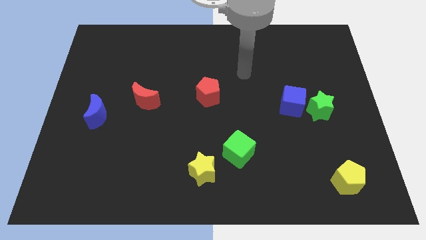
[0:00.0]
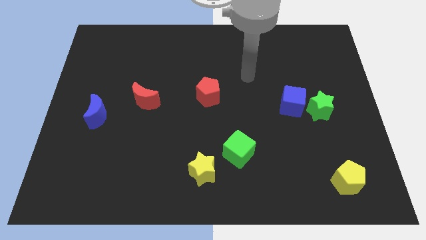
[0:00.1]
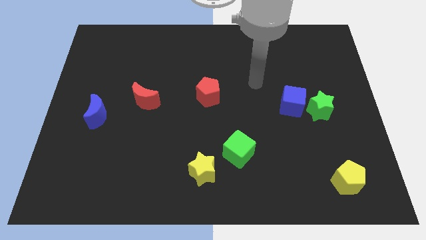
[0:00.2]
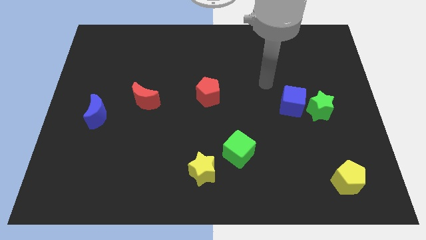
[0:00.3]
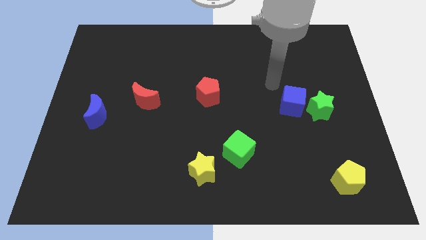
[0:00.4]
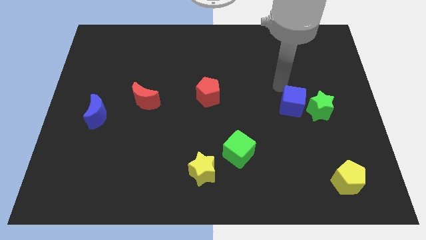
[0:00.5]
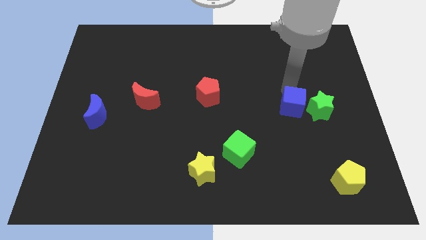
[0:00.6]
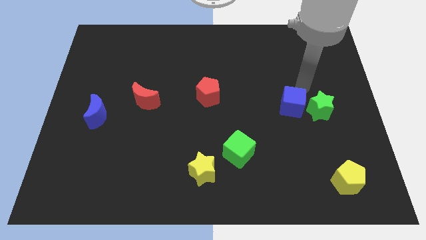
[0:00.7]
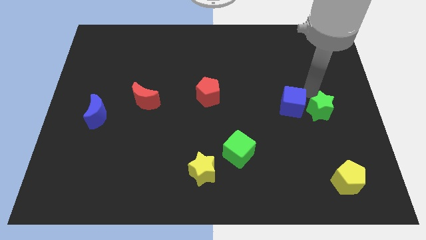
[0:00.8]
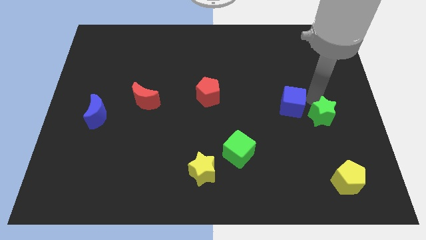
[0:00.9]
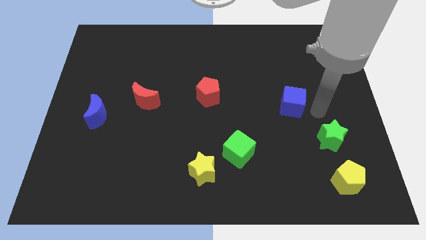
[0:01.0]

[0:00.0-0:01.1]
separate the blue cube from the green star

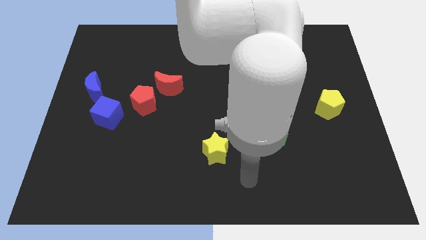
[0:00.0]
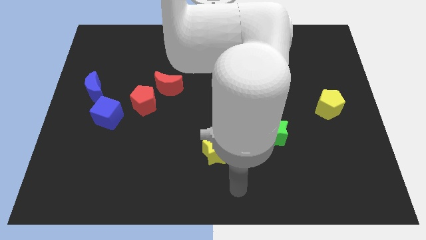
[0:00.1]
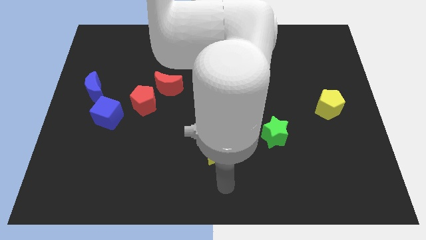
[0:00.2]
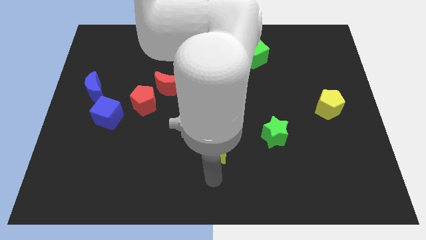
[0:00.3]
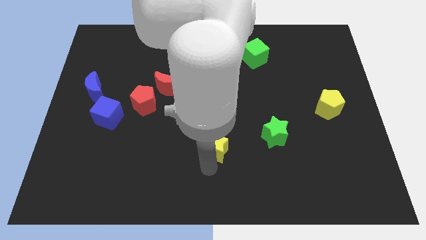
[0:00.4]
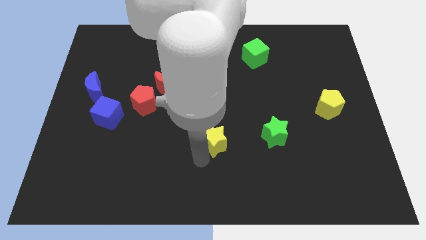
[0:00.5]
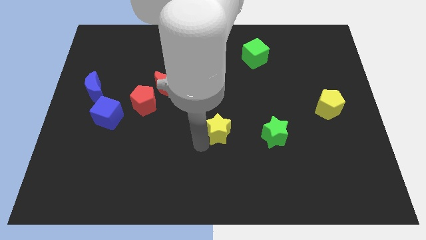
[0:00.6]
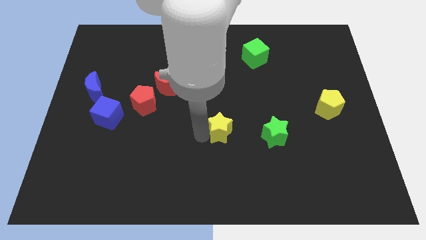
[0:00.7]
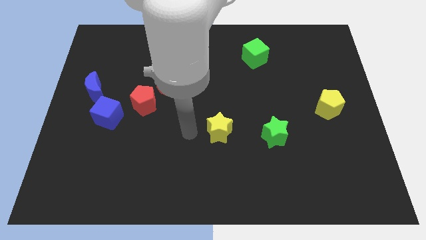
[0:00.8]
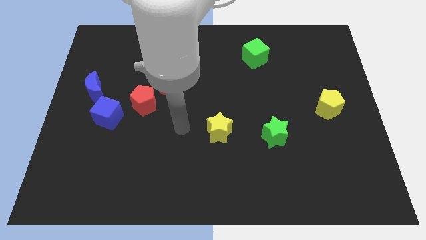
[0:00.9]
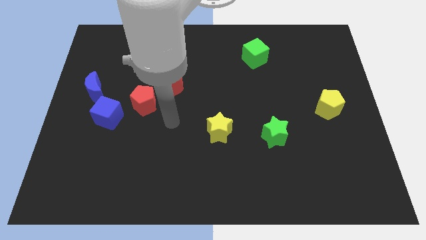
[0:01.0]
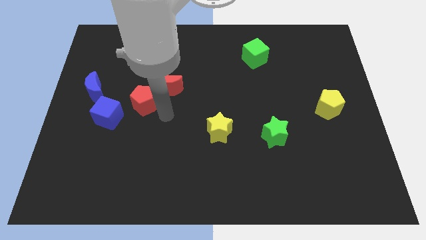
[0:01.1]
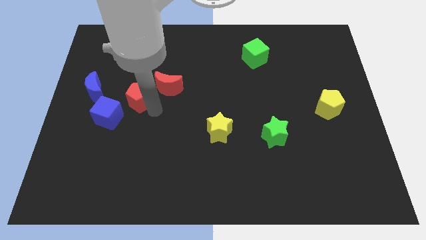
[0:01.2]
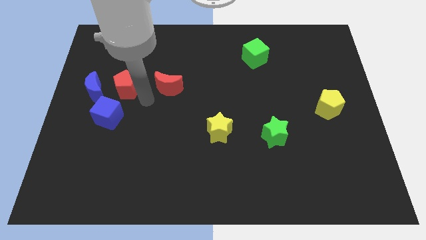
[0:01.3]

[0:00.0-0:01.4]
pull the red moon apart from the red pentagon

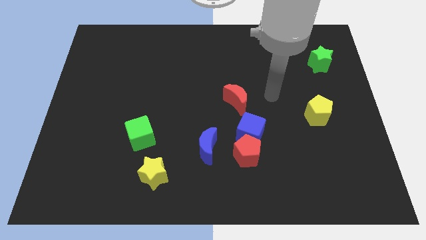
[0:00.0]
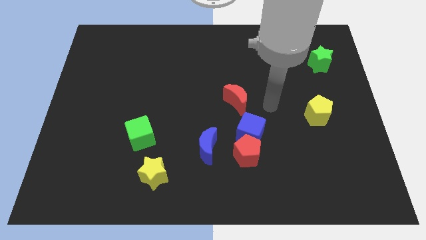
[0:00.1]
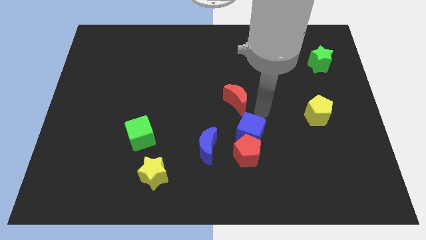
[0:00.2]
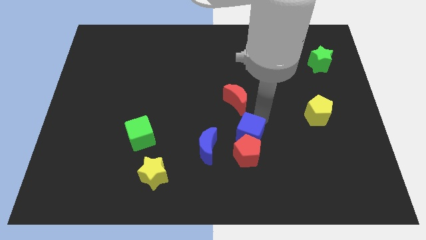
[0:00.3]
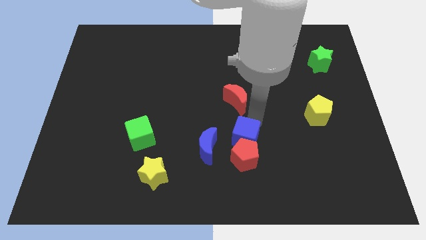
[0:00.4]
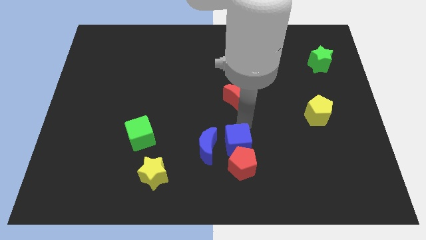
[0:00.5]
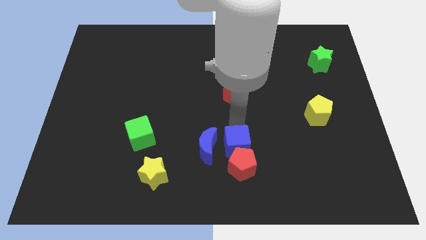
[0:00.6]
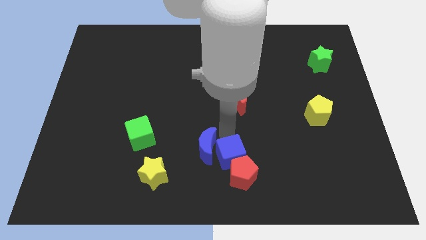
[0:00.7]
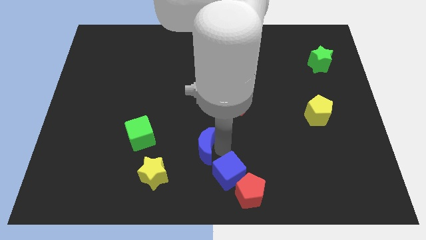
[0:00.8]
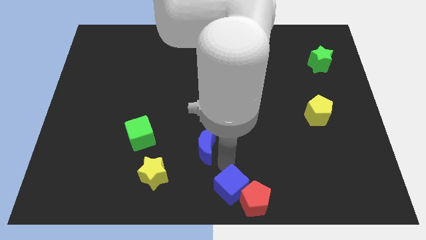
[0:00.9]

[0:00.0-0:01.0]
separate the red pentagon from the blue cube and blue moon

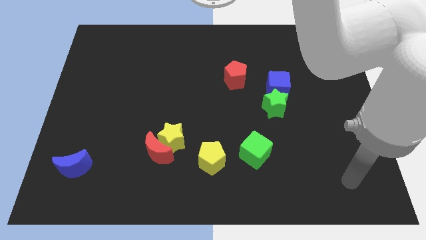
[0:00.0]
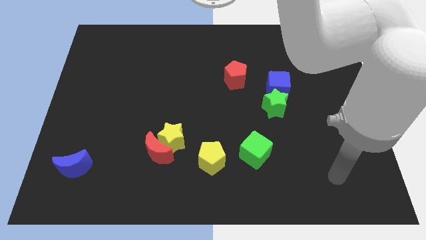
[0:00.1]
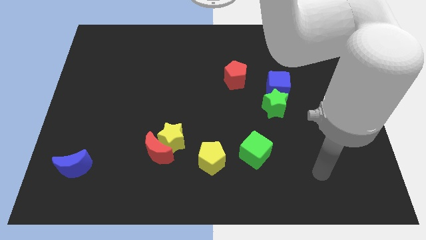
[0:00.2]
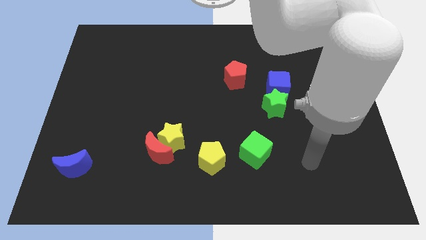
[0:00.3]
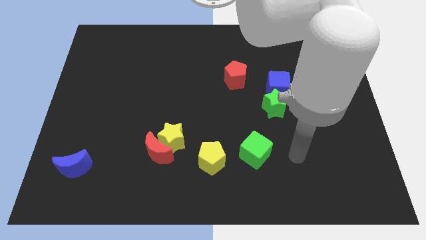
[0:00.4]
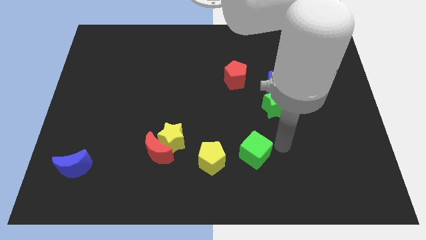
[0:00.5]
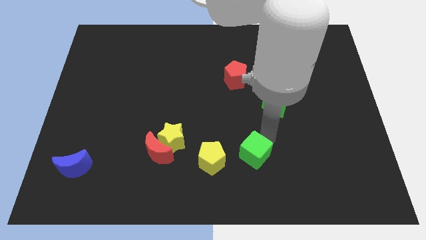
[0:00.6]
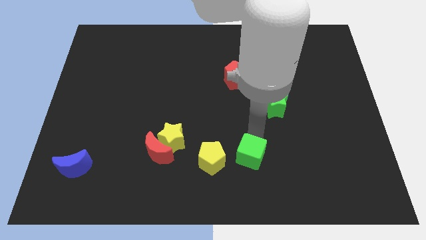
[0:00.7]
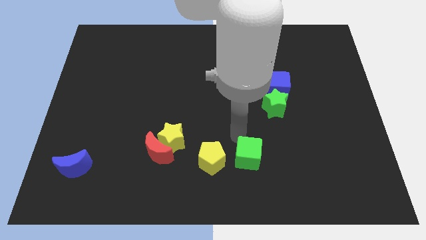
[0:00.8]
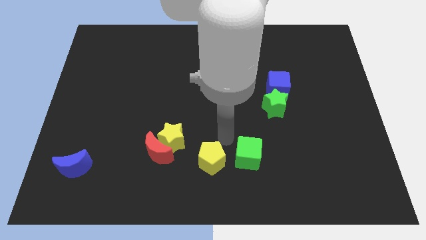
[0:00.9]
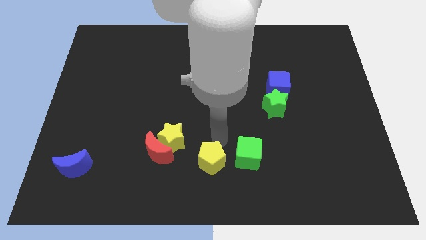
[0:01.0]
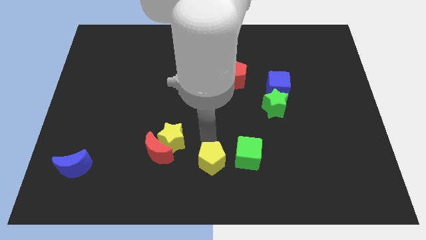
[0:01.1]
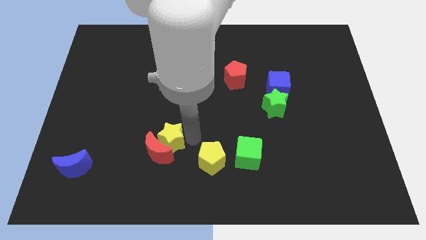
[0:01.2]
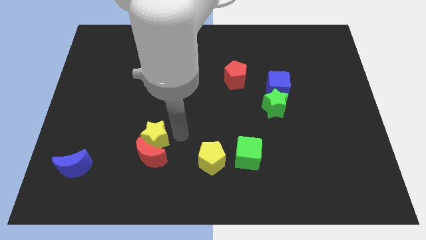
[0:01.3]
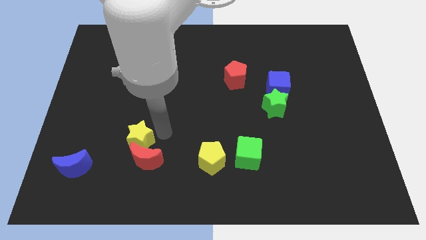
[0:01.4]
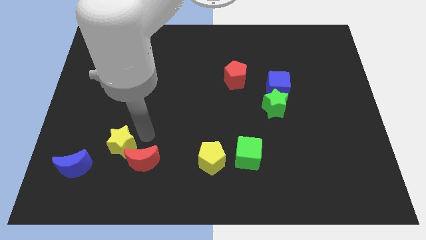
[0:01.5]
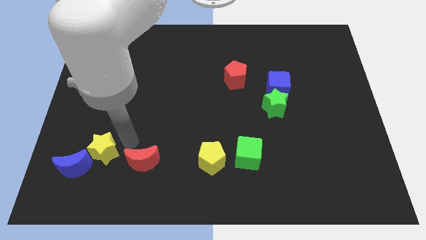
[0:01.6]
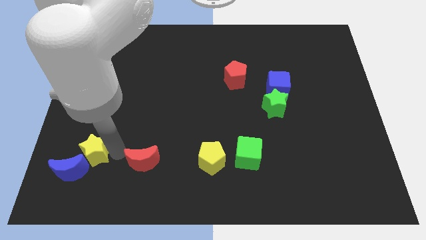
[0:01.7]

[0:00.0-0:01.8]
pull the red moon apart from the yellow star

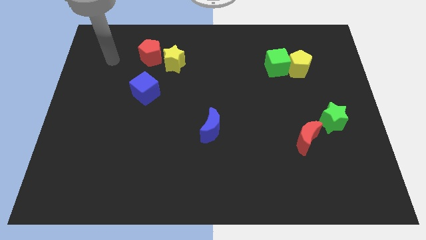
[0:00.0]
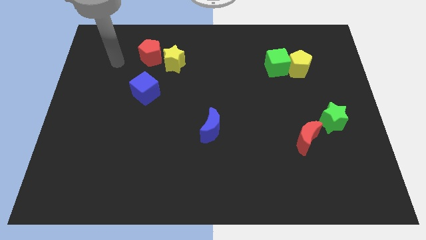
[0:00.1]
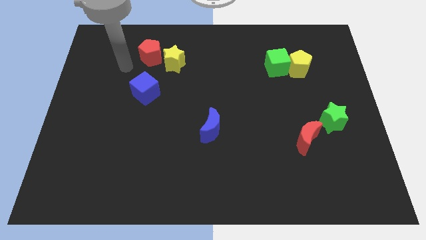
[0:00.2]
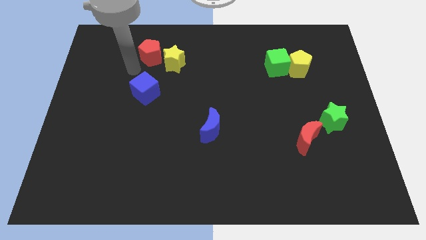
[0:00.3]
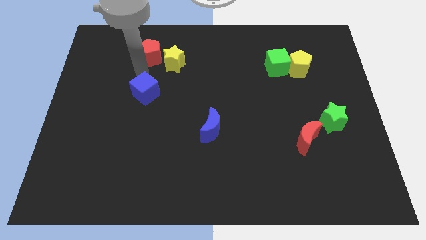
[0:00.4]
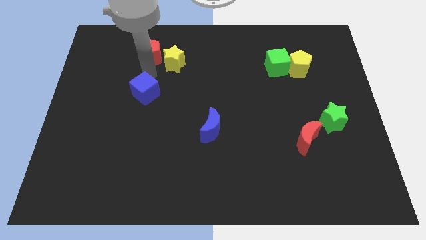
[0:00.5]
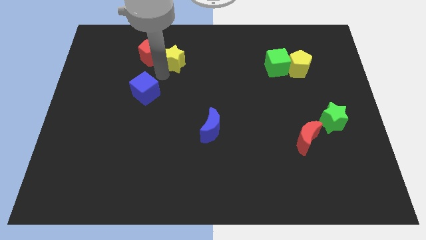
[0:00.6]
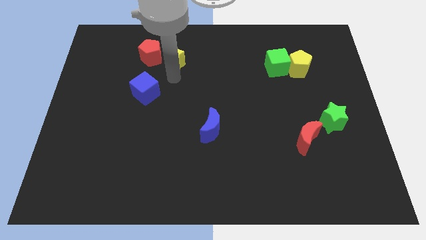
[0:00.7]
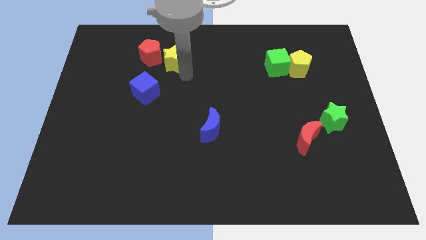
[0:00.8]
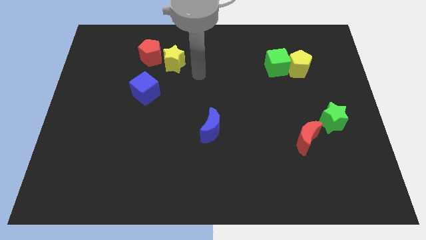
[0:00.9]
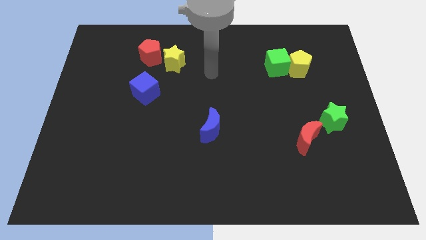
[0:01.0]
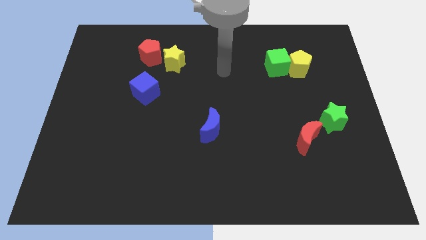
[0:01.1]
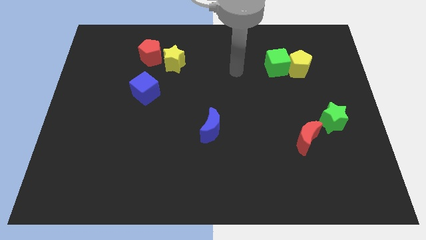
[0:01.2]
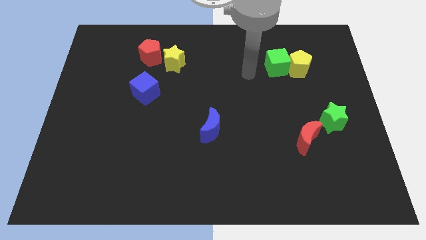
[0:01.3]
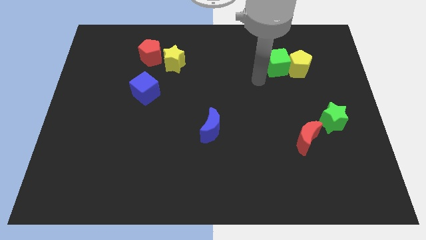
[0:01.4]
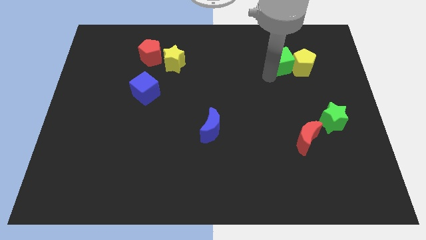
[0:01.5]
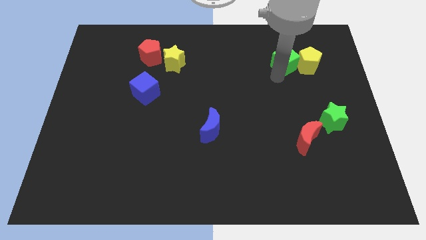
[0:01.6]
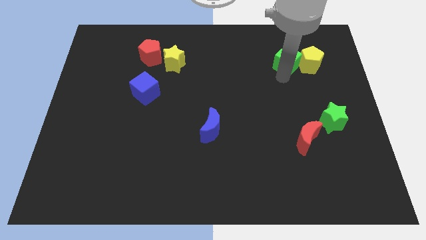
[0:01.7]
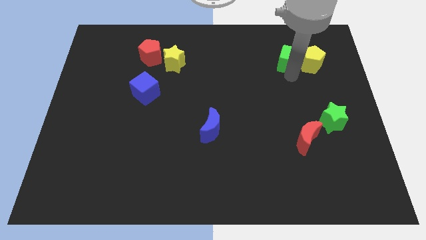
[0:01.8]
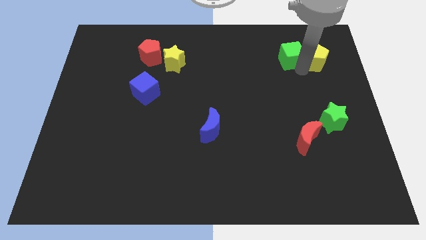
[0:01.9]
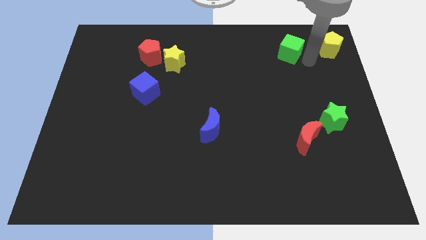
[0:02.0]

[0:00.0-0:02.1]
move the green cube away from the yellow pentagon

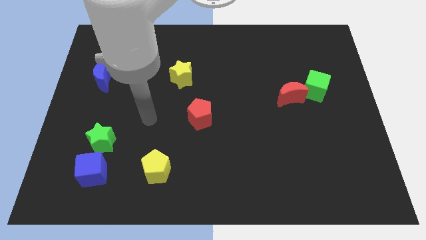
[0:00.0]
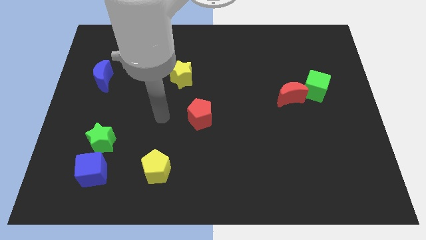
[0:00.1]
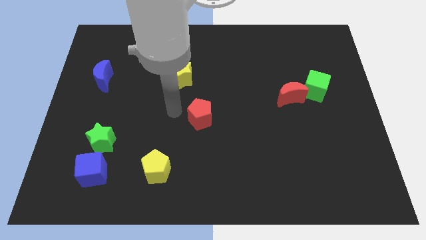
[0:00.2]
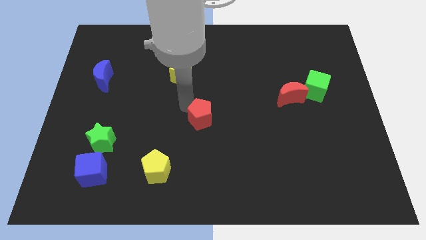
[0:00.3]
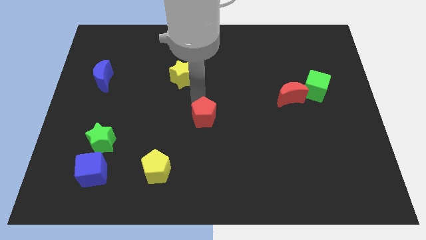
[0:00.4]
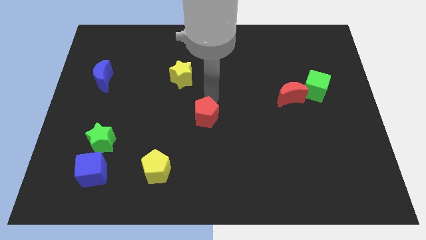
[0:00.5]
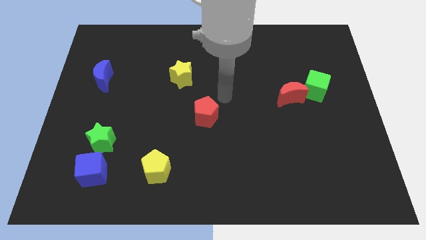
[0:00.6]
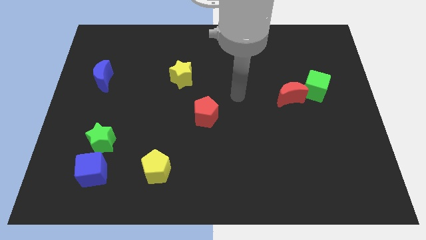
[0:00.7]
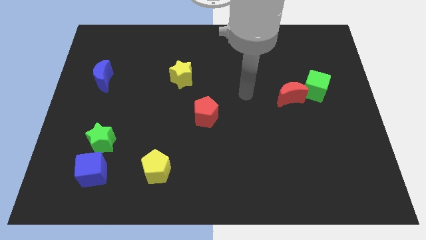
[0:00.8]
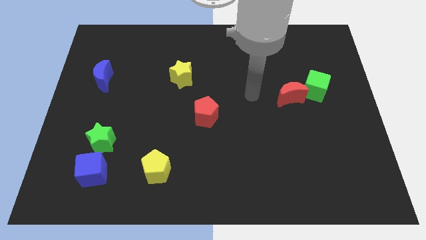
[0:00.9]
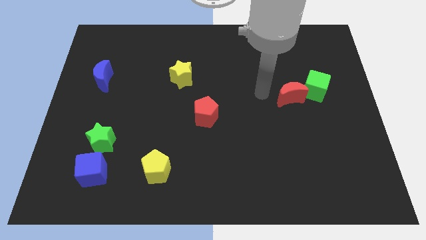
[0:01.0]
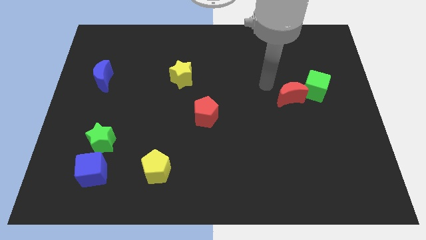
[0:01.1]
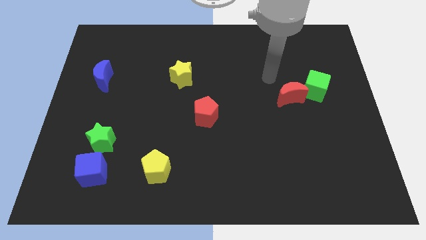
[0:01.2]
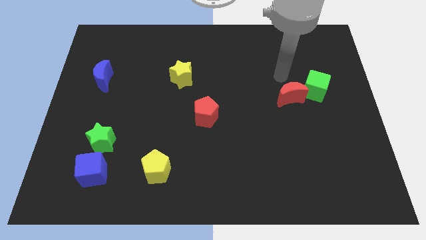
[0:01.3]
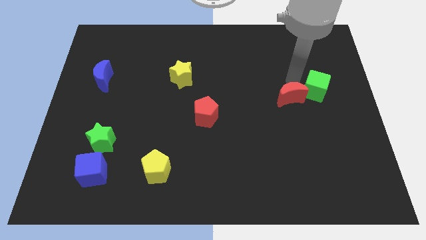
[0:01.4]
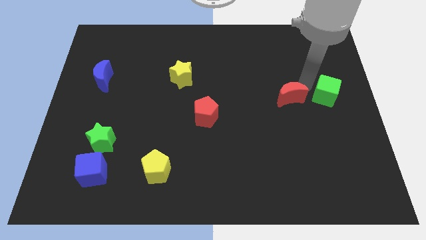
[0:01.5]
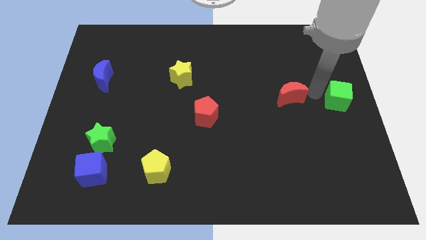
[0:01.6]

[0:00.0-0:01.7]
separate the red moon from the green cube

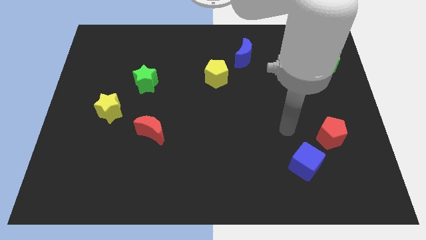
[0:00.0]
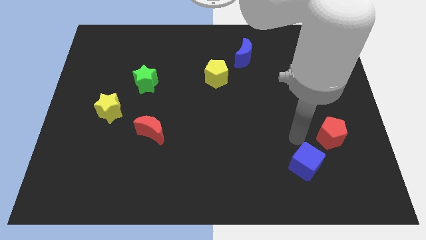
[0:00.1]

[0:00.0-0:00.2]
pull the red pentagon apart from the blue cube

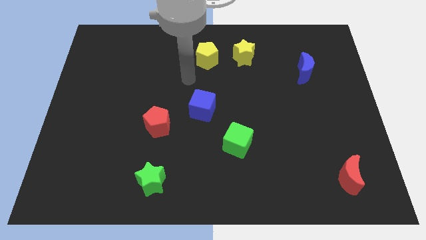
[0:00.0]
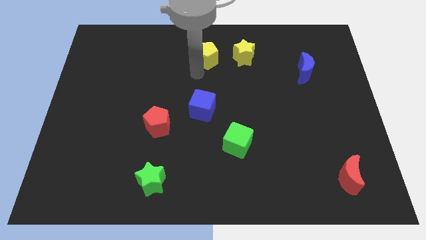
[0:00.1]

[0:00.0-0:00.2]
separate the yellow star from the yellow pentagon
